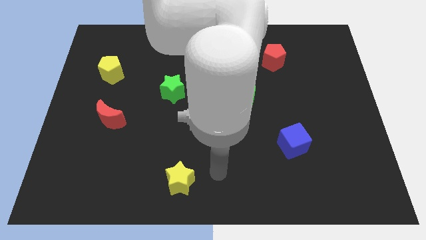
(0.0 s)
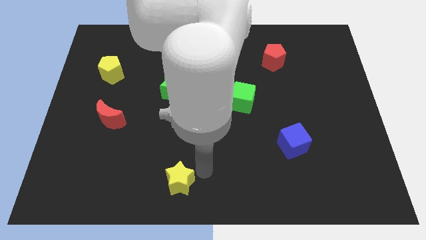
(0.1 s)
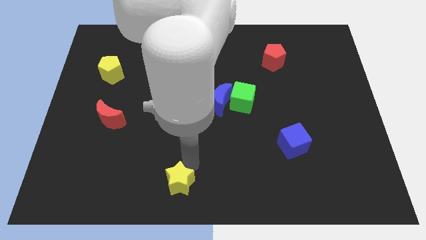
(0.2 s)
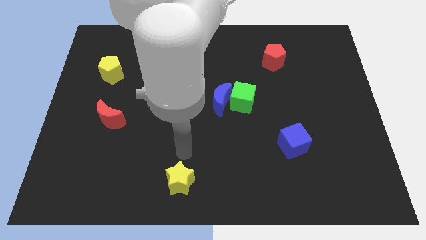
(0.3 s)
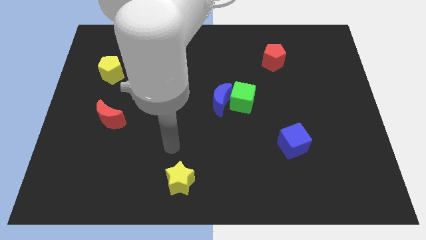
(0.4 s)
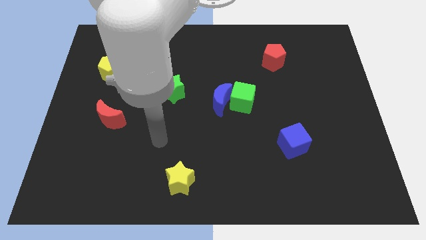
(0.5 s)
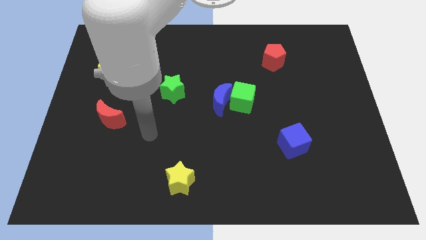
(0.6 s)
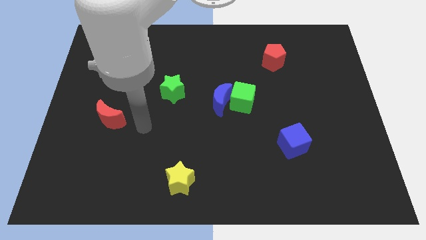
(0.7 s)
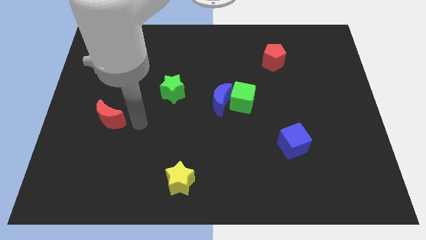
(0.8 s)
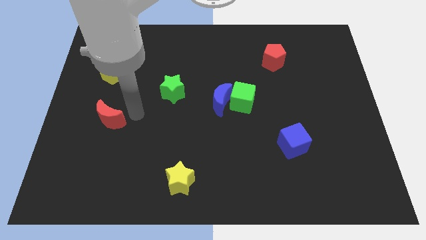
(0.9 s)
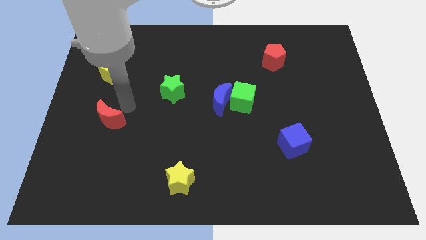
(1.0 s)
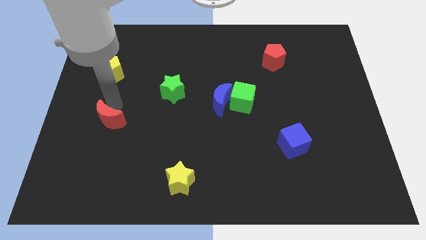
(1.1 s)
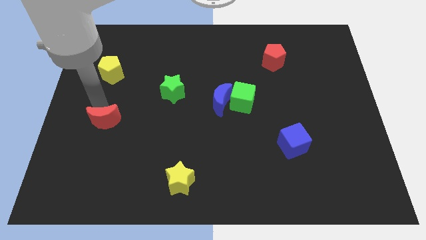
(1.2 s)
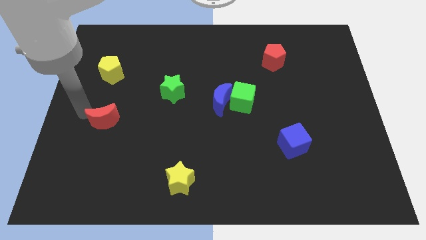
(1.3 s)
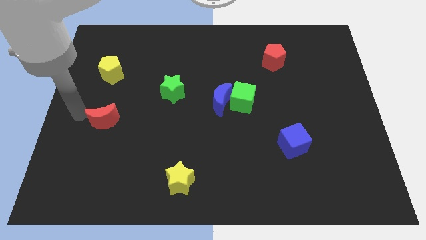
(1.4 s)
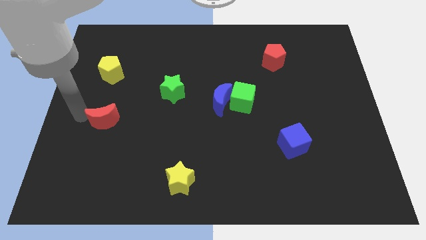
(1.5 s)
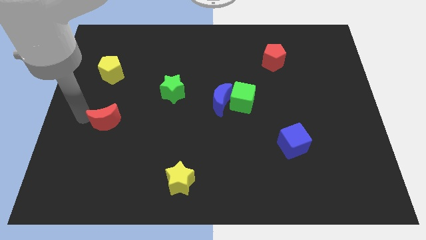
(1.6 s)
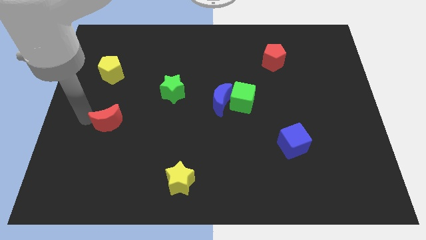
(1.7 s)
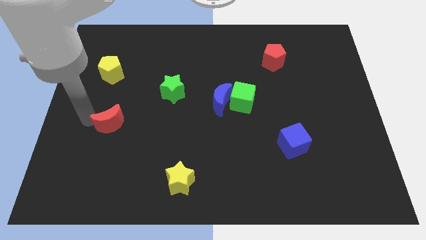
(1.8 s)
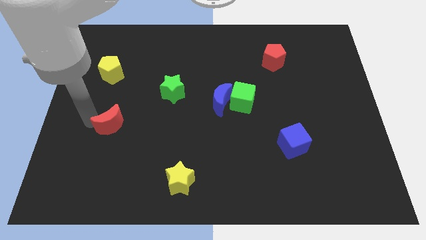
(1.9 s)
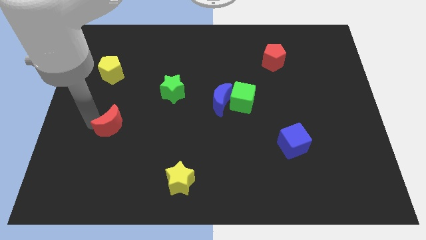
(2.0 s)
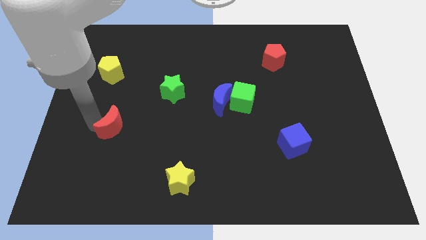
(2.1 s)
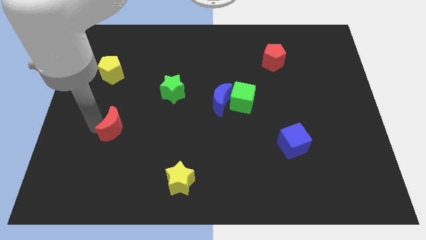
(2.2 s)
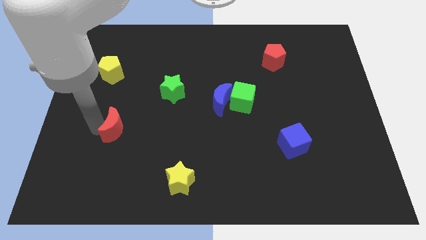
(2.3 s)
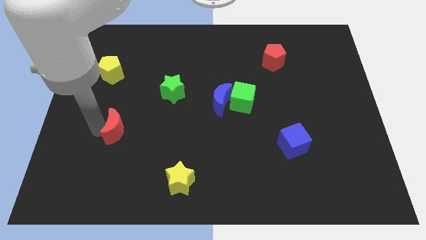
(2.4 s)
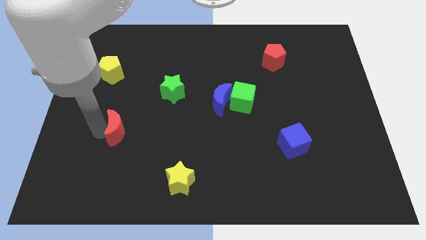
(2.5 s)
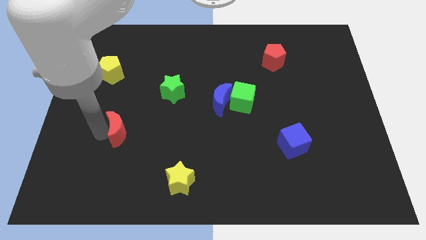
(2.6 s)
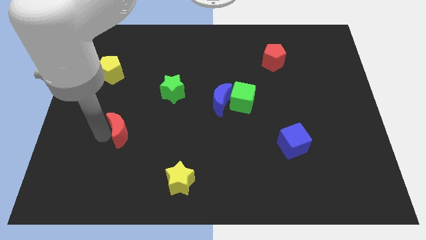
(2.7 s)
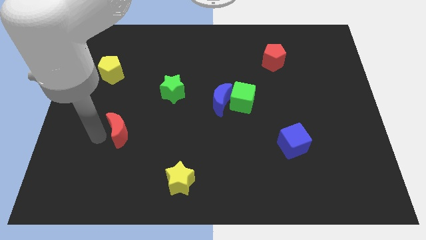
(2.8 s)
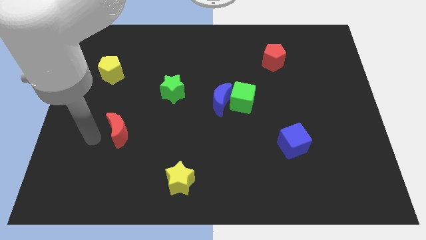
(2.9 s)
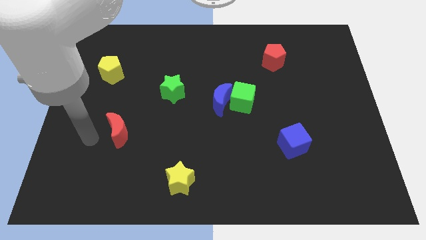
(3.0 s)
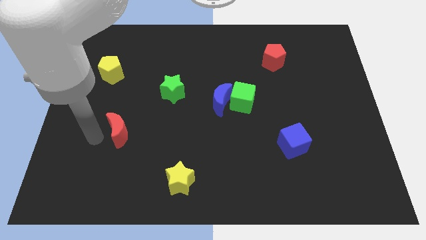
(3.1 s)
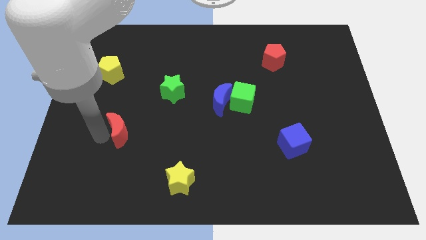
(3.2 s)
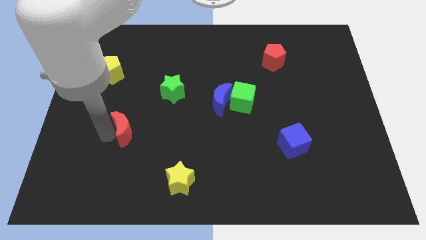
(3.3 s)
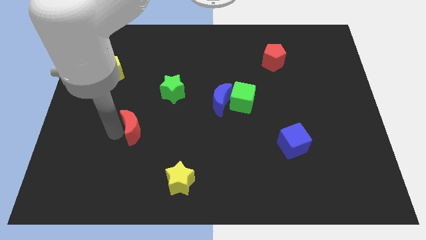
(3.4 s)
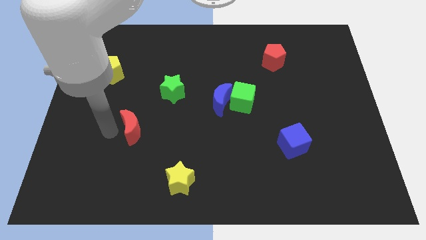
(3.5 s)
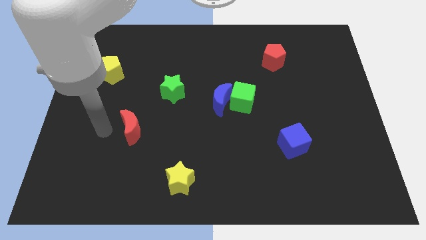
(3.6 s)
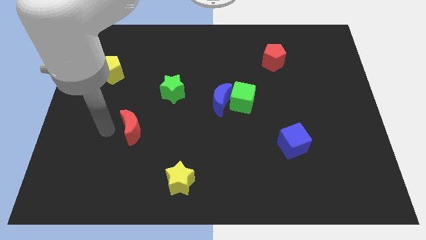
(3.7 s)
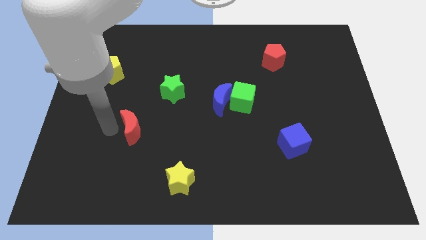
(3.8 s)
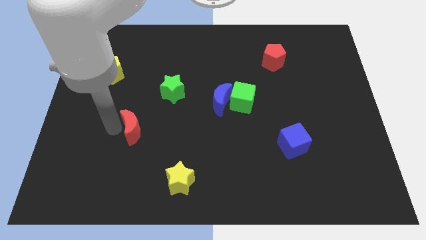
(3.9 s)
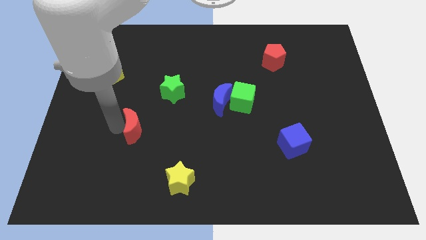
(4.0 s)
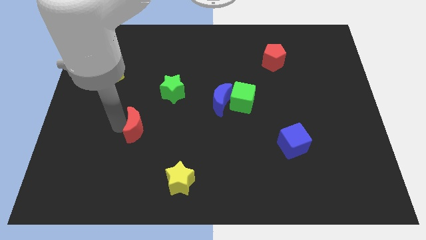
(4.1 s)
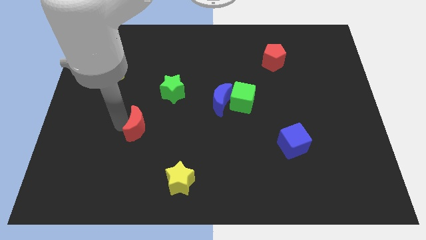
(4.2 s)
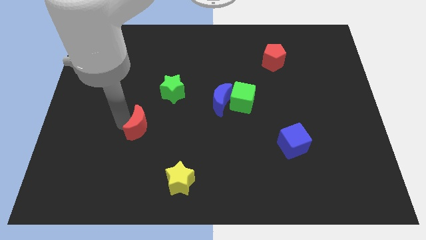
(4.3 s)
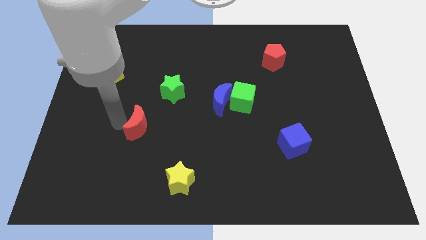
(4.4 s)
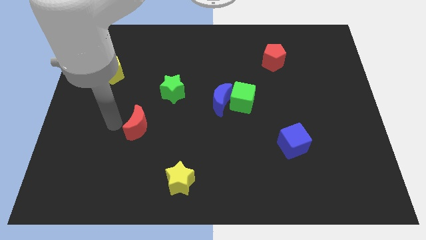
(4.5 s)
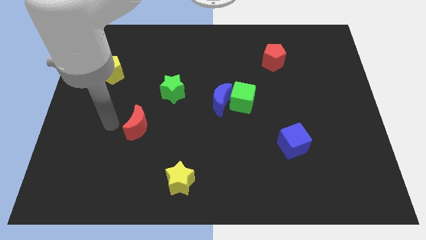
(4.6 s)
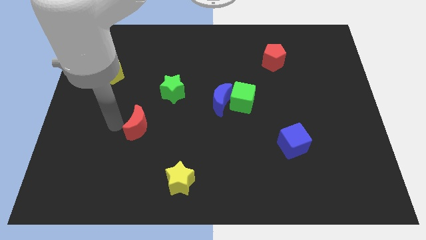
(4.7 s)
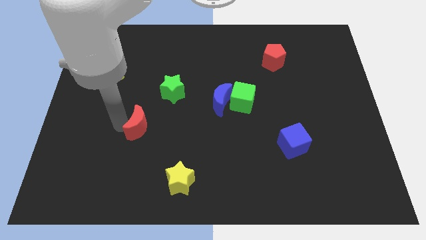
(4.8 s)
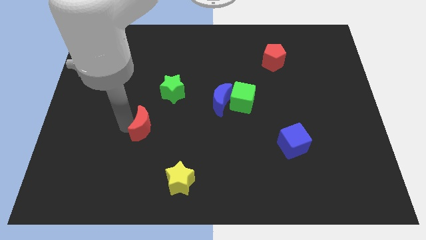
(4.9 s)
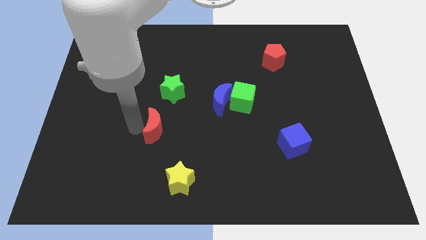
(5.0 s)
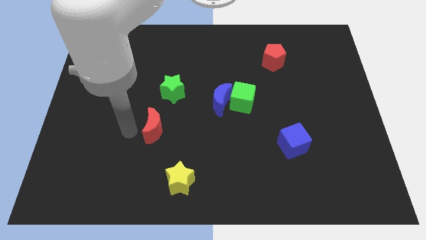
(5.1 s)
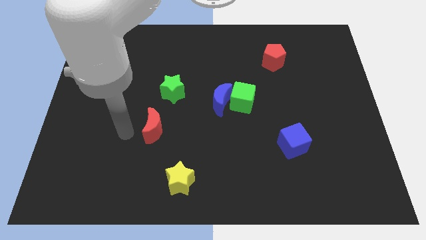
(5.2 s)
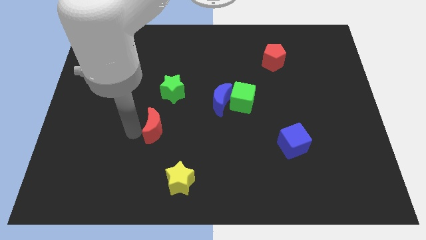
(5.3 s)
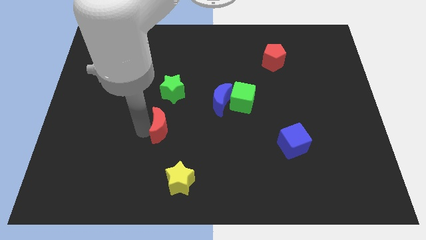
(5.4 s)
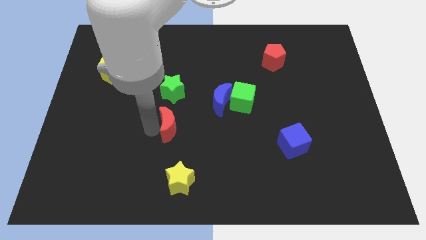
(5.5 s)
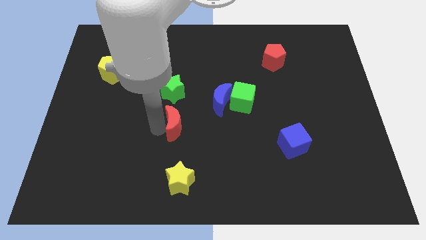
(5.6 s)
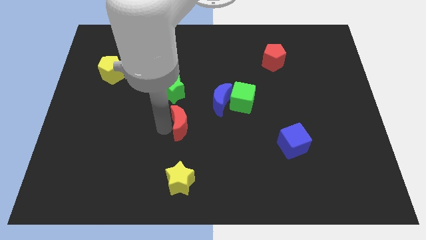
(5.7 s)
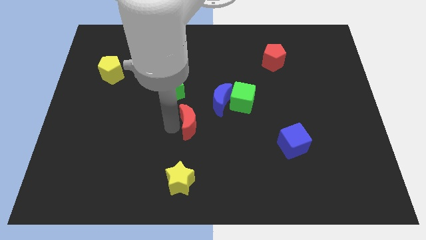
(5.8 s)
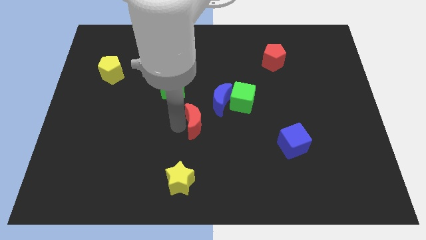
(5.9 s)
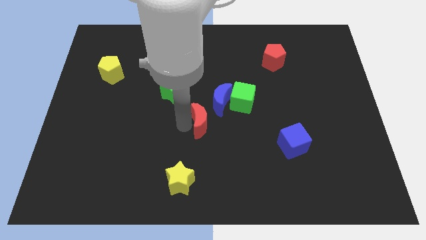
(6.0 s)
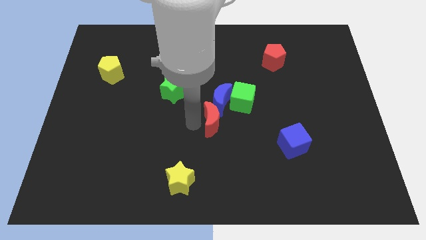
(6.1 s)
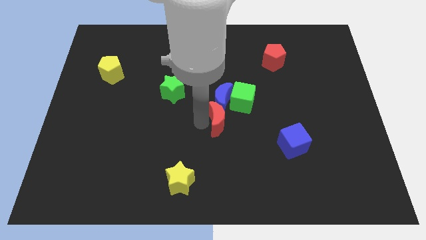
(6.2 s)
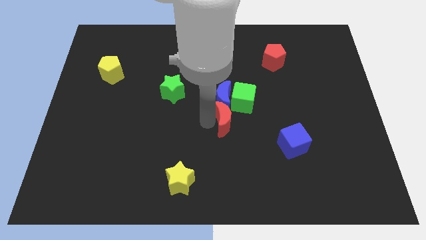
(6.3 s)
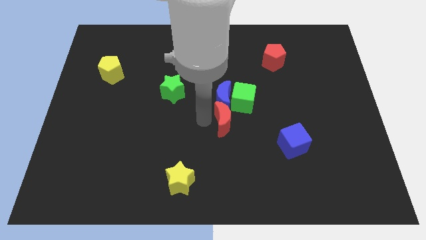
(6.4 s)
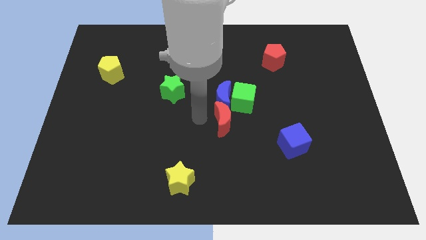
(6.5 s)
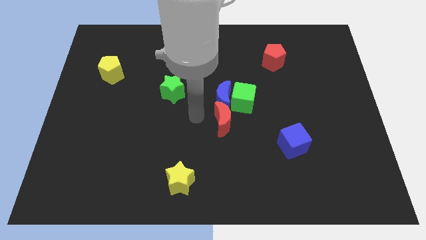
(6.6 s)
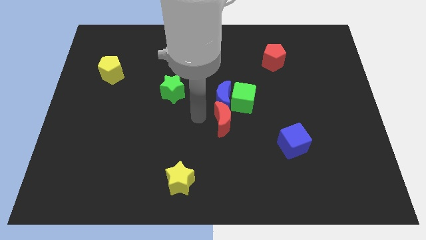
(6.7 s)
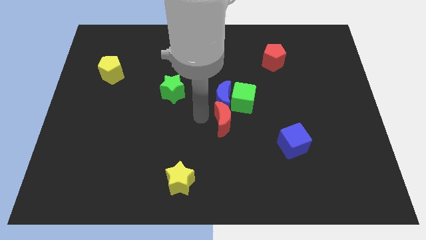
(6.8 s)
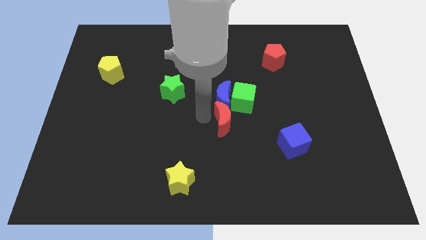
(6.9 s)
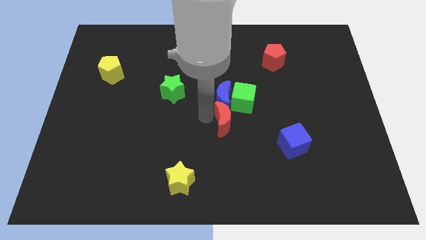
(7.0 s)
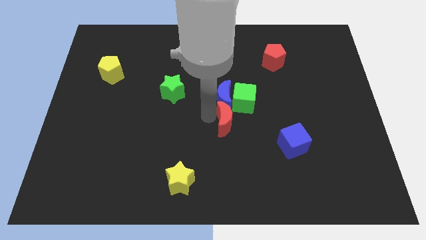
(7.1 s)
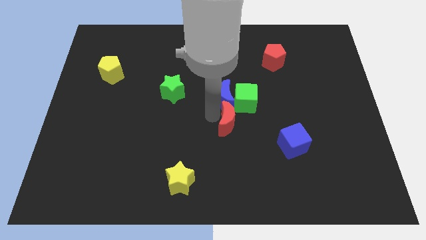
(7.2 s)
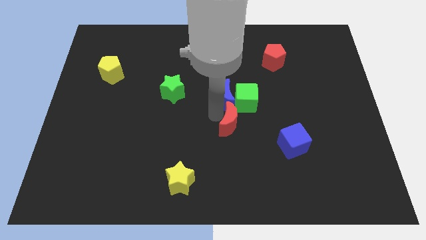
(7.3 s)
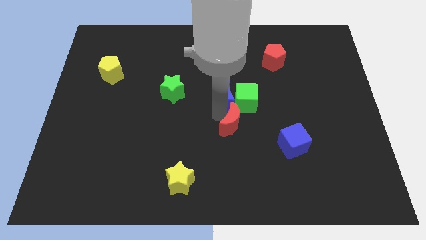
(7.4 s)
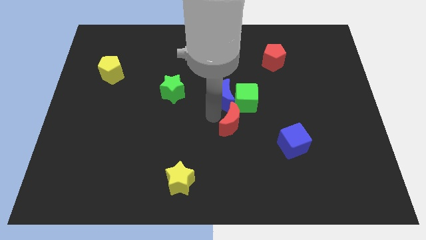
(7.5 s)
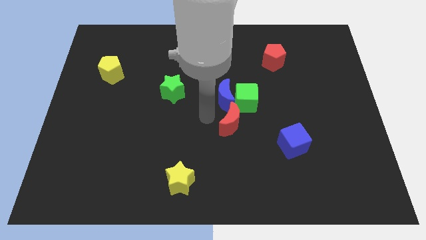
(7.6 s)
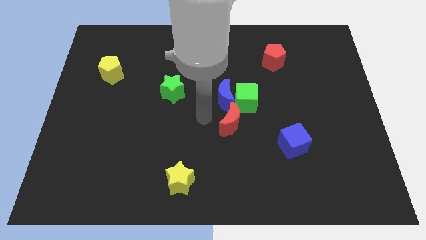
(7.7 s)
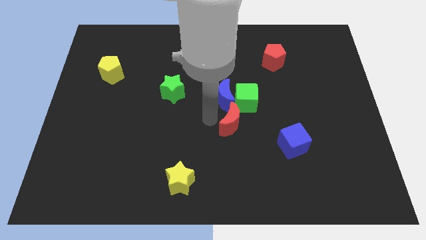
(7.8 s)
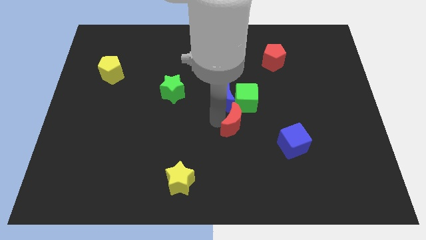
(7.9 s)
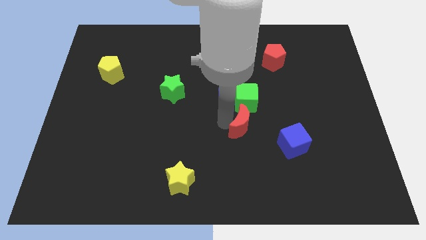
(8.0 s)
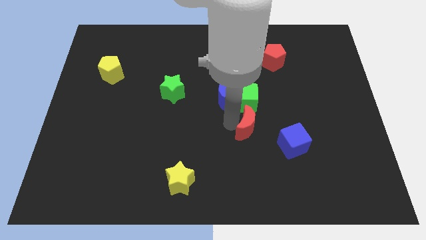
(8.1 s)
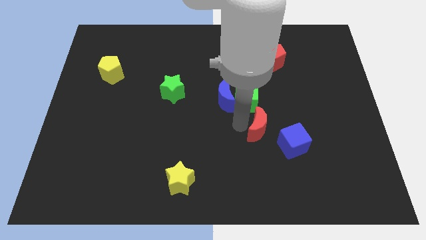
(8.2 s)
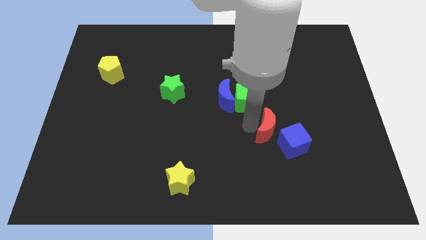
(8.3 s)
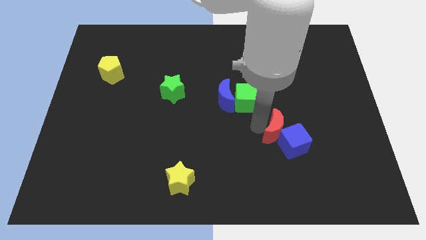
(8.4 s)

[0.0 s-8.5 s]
move the red moon to the blue cube
